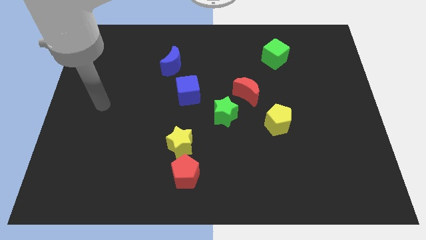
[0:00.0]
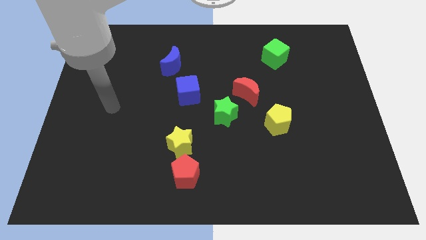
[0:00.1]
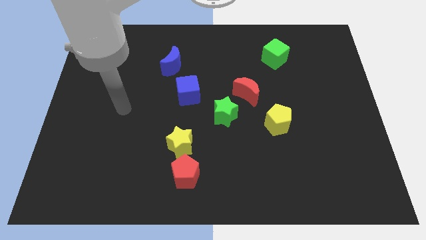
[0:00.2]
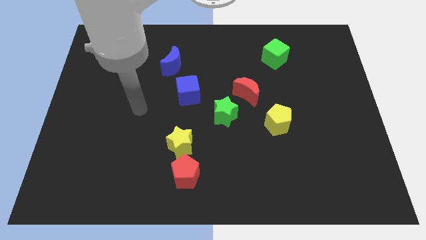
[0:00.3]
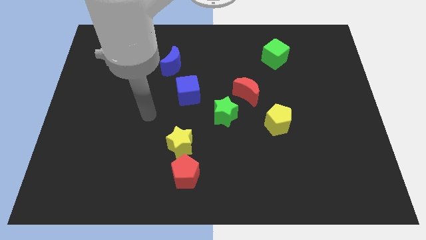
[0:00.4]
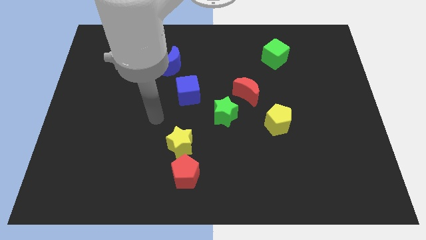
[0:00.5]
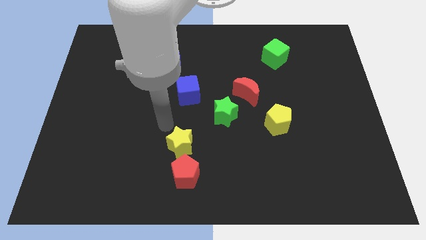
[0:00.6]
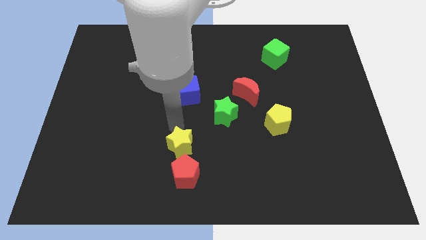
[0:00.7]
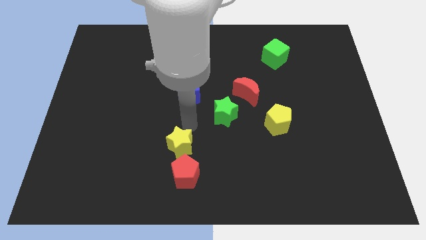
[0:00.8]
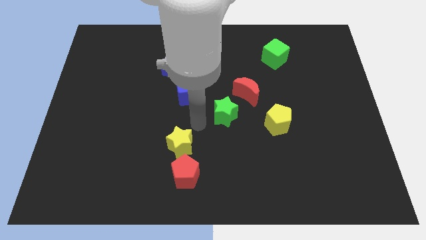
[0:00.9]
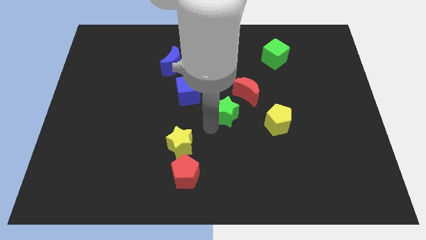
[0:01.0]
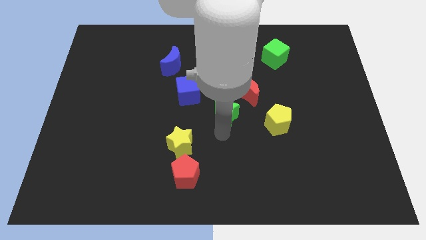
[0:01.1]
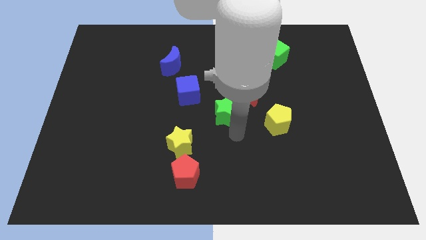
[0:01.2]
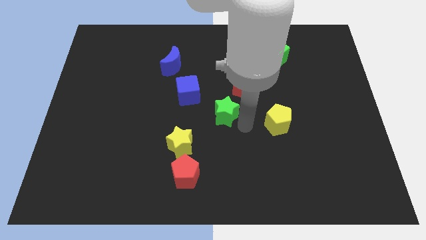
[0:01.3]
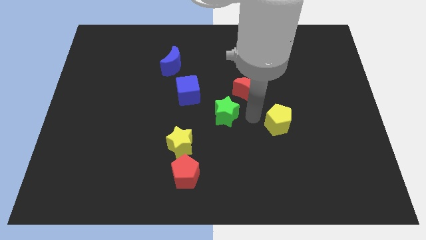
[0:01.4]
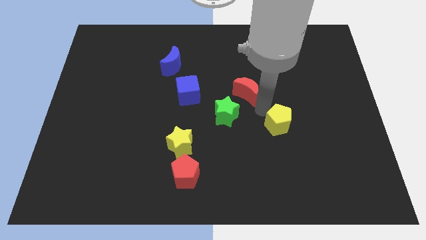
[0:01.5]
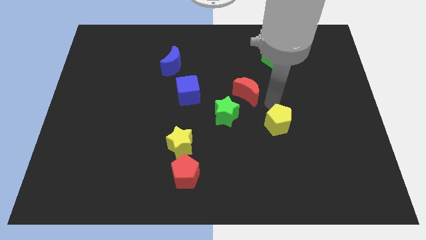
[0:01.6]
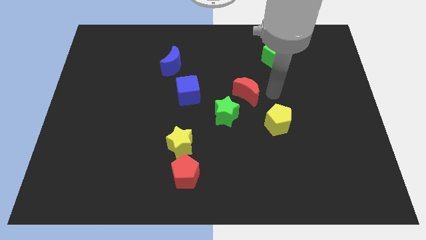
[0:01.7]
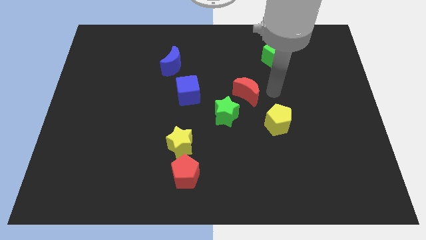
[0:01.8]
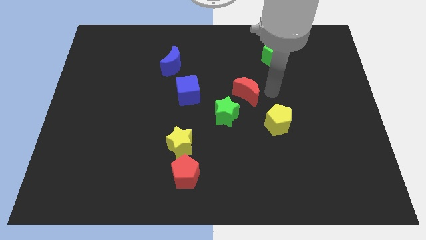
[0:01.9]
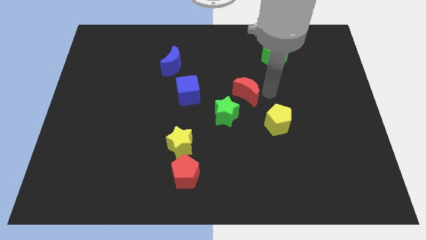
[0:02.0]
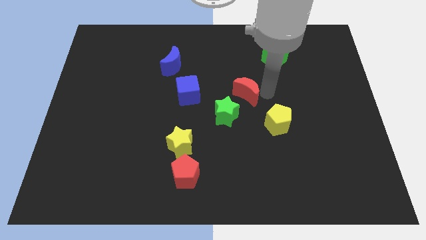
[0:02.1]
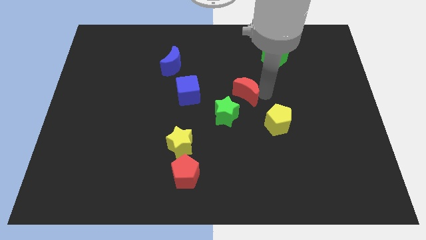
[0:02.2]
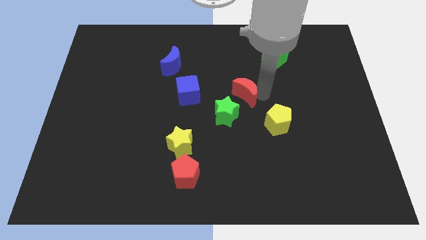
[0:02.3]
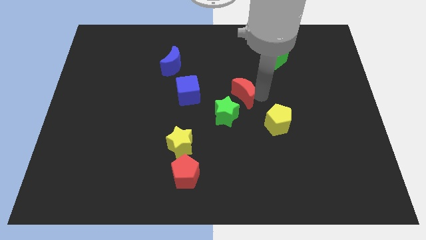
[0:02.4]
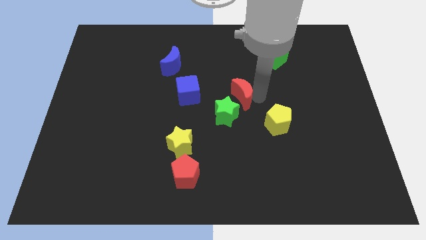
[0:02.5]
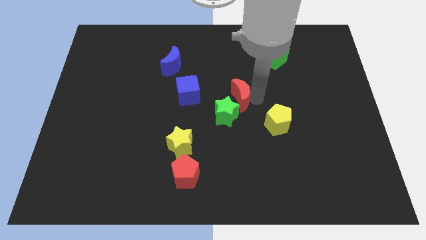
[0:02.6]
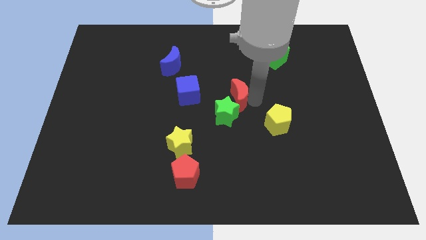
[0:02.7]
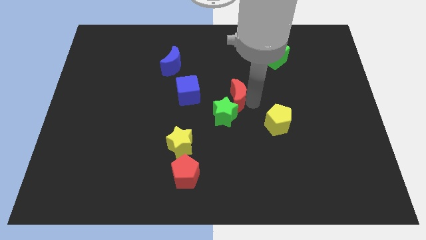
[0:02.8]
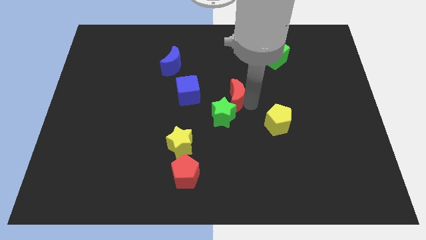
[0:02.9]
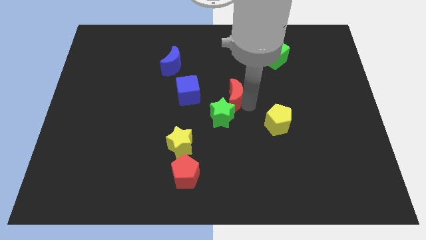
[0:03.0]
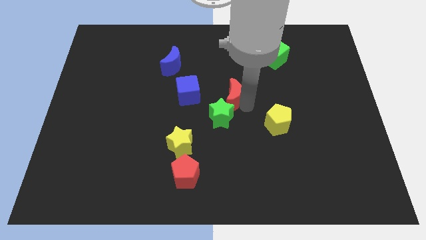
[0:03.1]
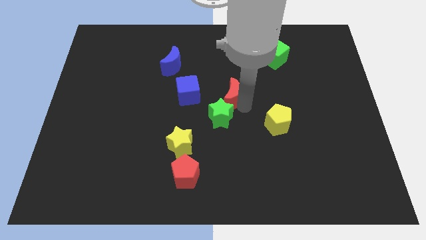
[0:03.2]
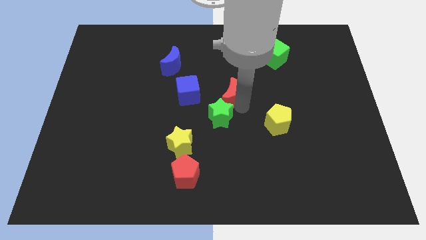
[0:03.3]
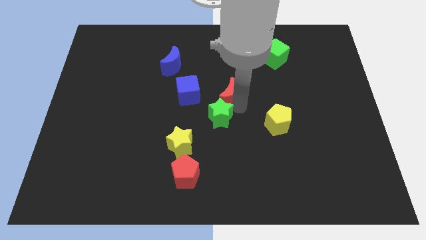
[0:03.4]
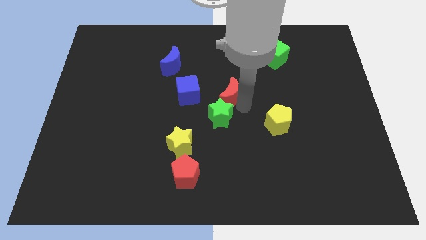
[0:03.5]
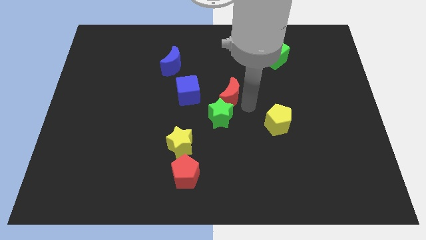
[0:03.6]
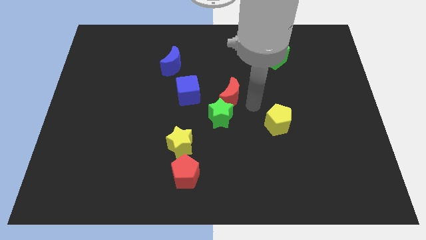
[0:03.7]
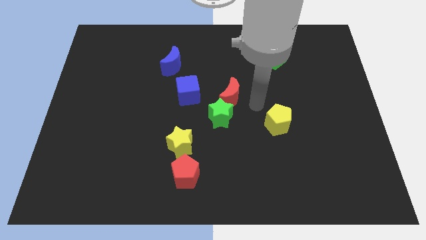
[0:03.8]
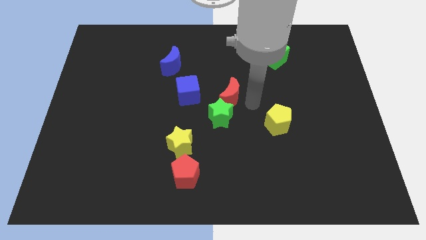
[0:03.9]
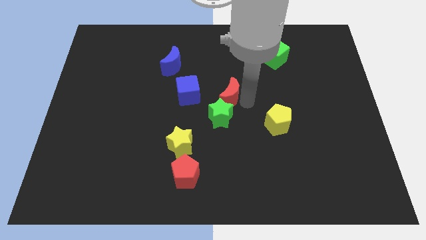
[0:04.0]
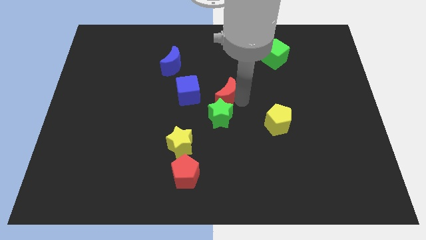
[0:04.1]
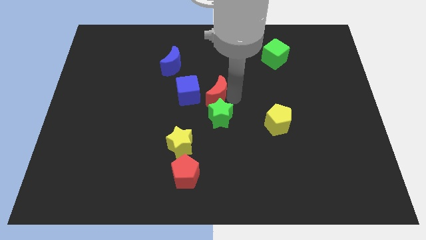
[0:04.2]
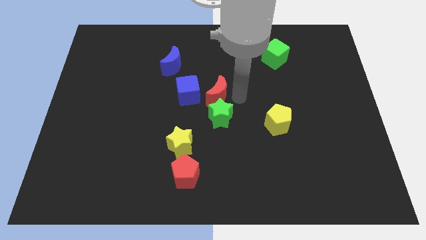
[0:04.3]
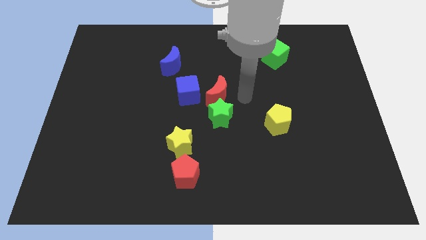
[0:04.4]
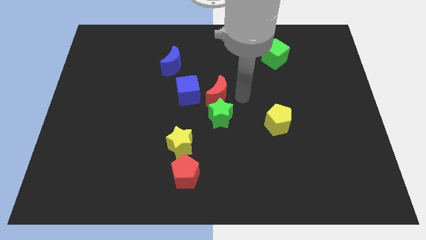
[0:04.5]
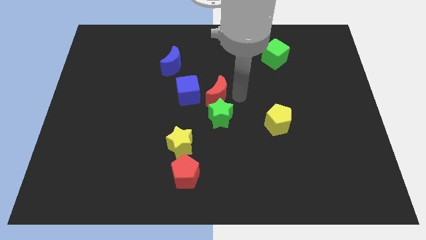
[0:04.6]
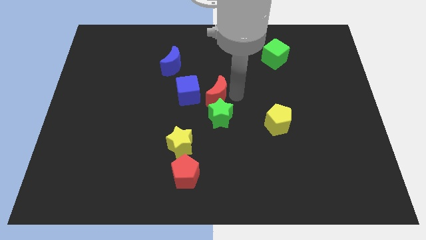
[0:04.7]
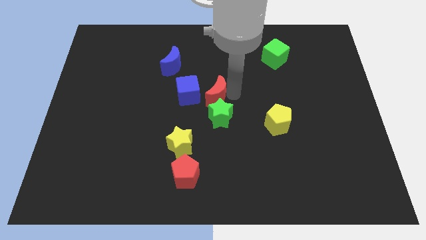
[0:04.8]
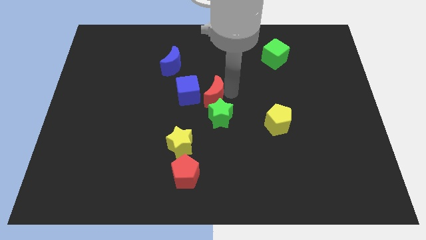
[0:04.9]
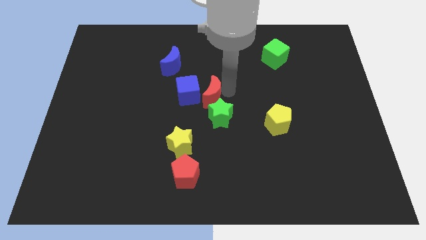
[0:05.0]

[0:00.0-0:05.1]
move the red moon towards the blue cube

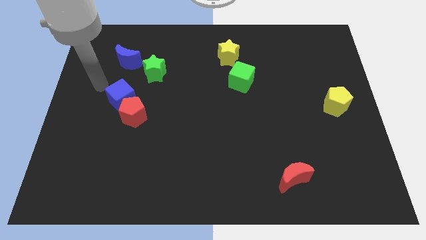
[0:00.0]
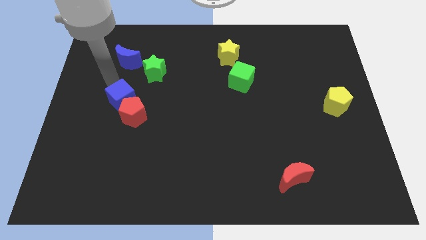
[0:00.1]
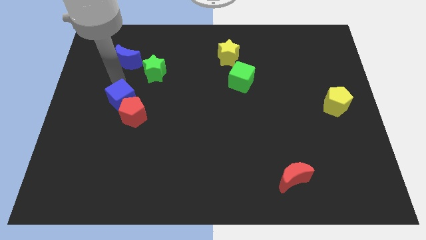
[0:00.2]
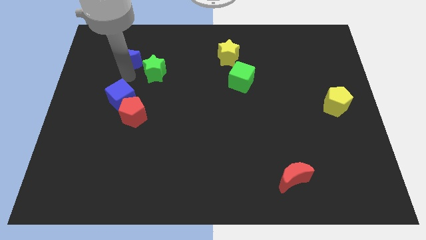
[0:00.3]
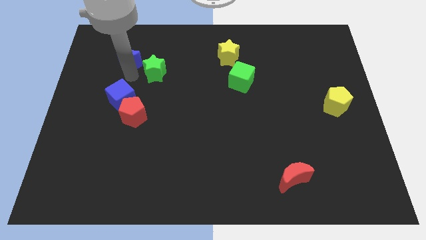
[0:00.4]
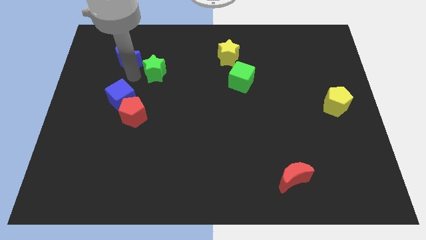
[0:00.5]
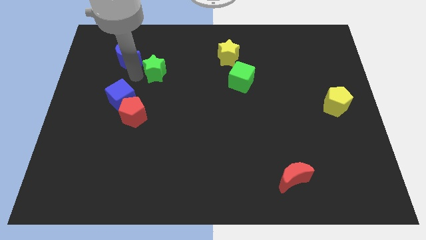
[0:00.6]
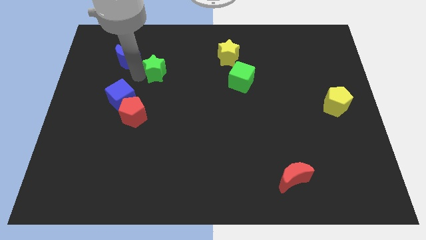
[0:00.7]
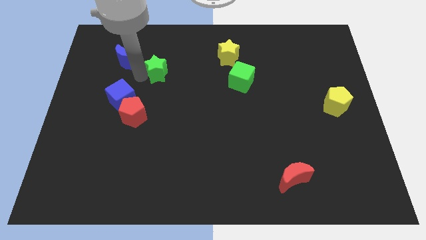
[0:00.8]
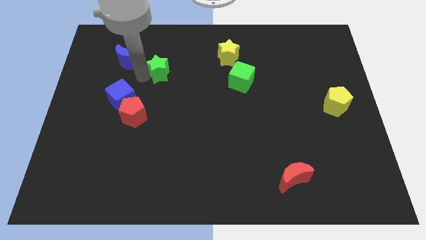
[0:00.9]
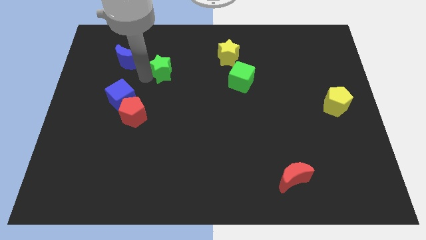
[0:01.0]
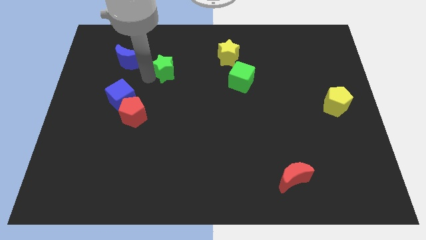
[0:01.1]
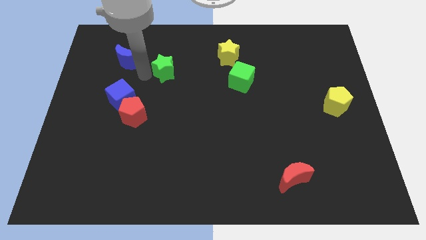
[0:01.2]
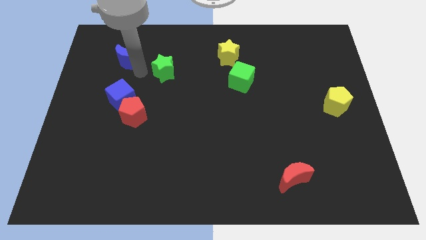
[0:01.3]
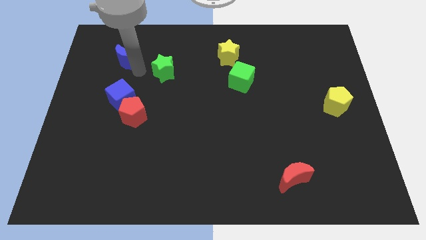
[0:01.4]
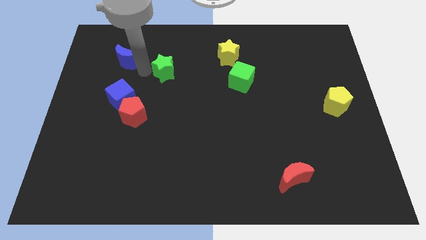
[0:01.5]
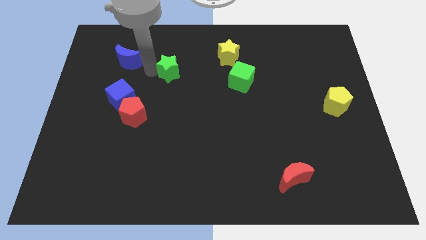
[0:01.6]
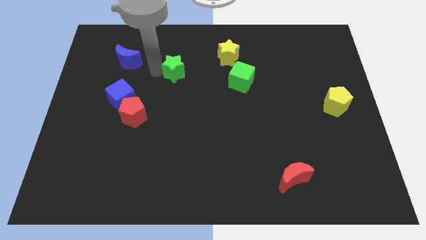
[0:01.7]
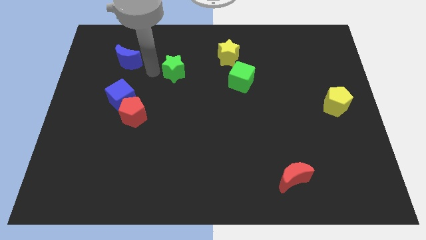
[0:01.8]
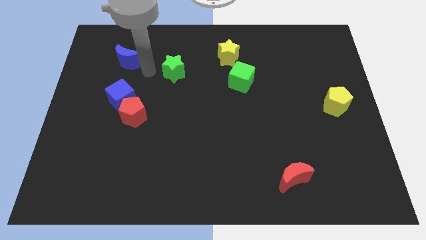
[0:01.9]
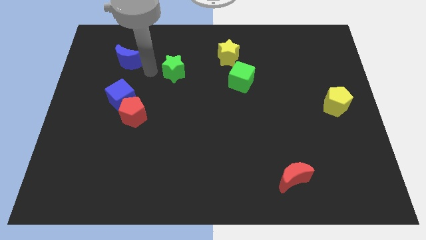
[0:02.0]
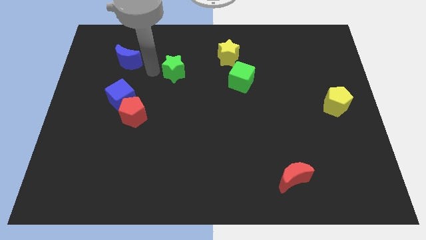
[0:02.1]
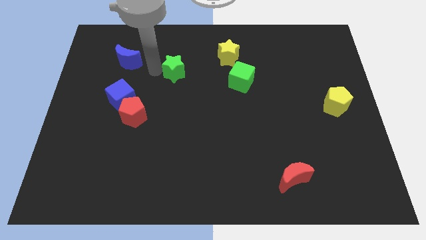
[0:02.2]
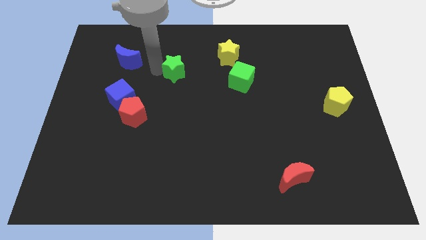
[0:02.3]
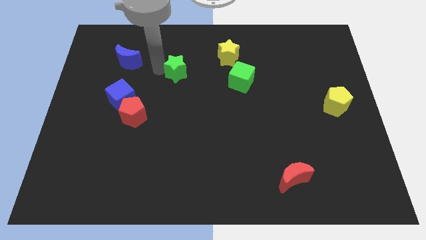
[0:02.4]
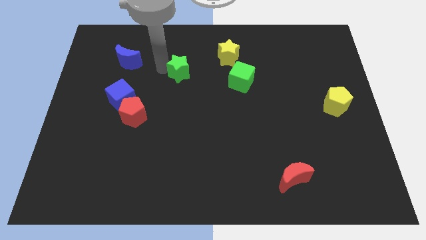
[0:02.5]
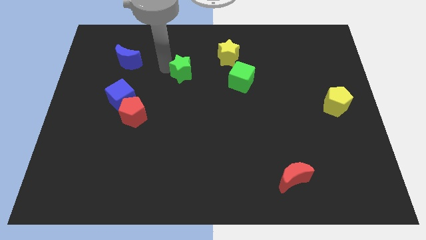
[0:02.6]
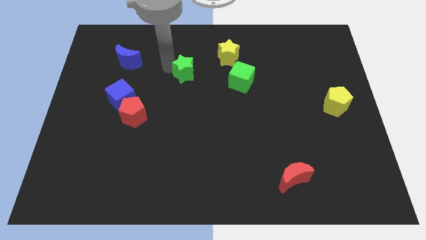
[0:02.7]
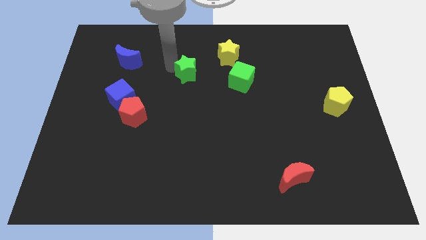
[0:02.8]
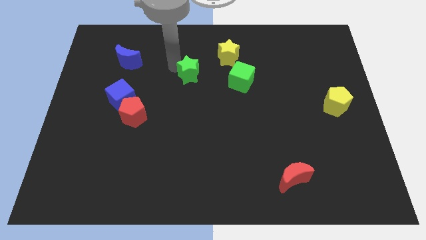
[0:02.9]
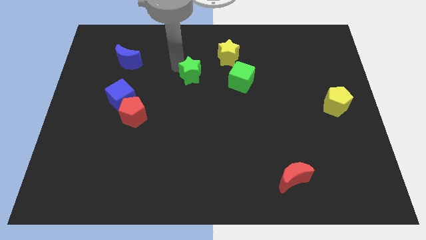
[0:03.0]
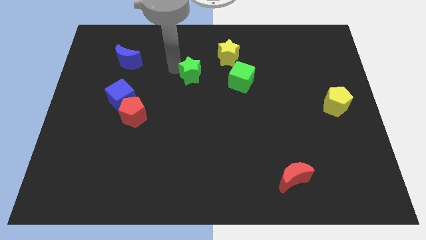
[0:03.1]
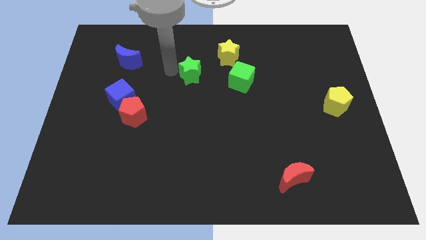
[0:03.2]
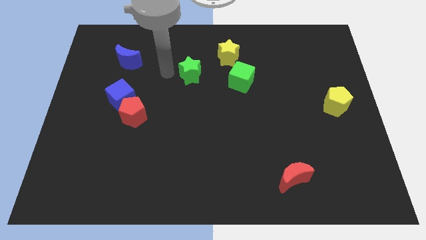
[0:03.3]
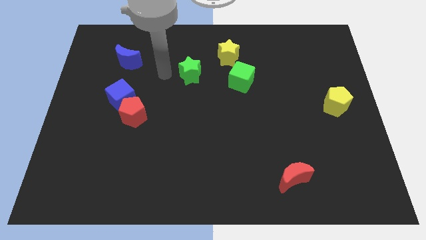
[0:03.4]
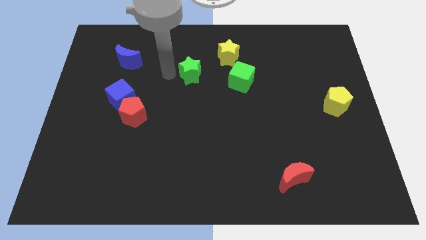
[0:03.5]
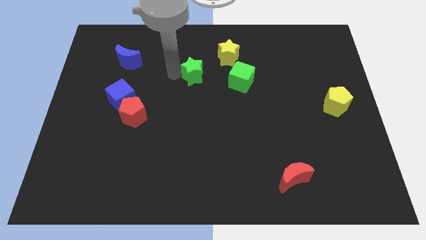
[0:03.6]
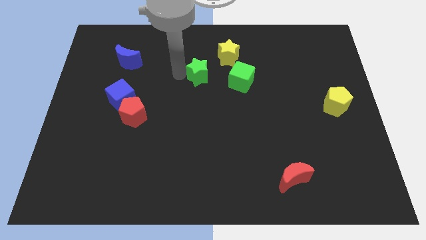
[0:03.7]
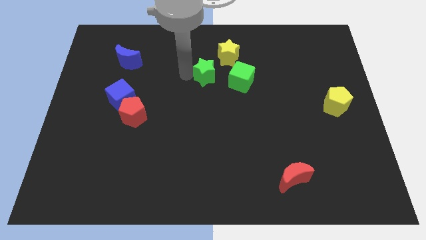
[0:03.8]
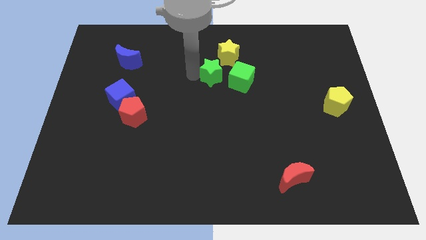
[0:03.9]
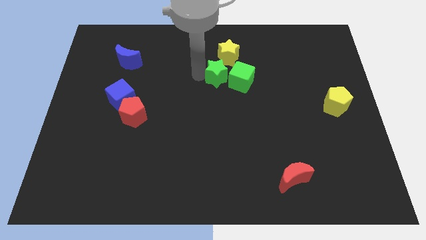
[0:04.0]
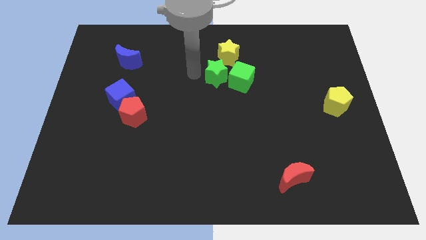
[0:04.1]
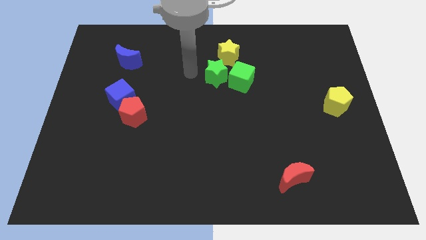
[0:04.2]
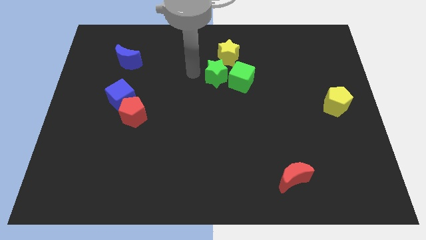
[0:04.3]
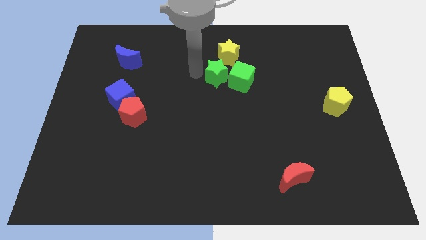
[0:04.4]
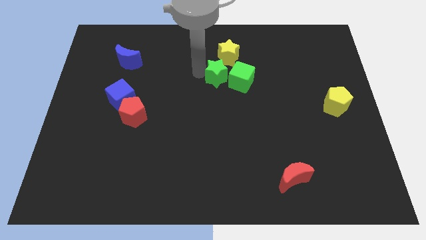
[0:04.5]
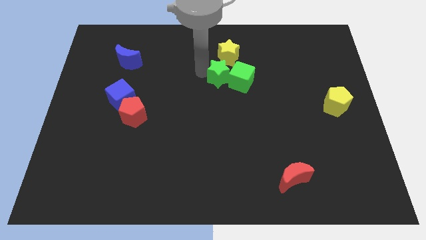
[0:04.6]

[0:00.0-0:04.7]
slide the green star to the green cube
